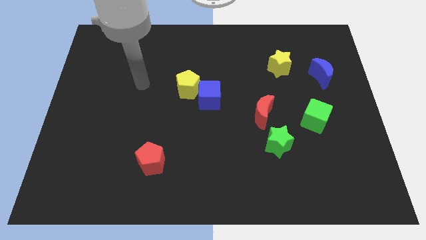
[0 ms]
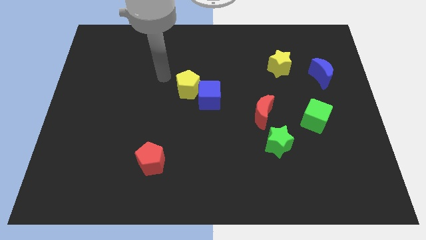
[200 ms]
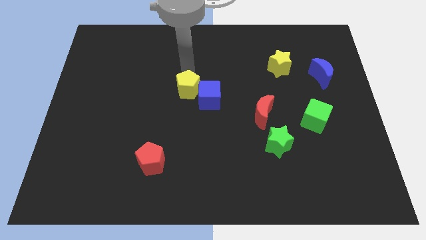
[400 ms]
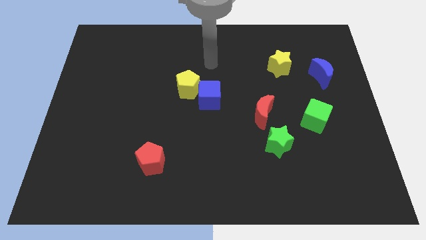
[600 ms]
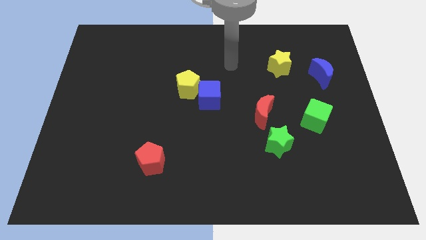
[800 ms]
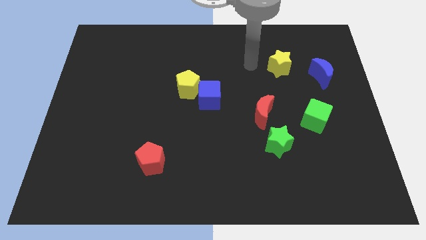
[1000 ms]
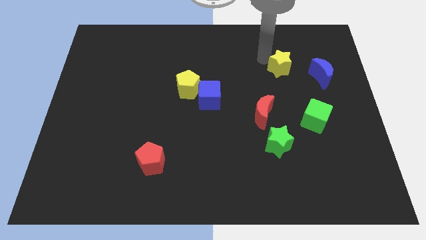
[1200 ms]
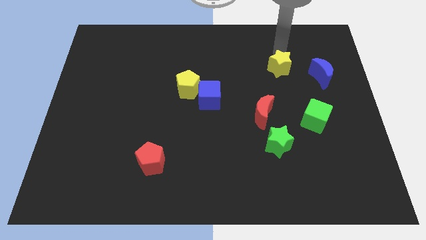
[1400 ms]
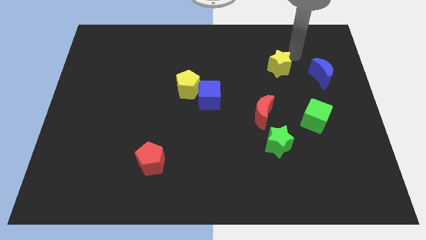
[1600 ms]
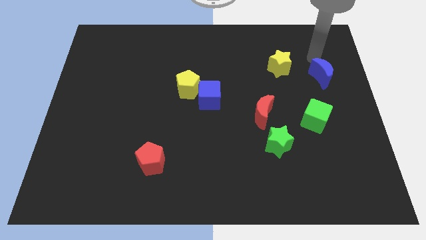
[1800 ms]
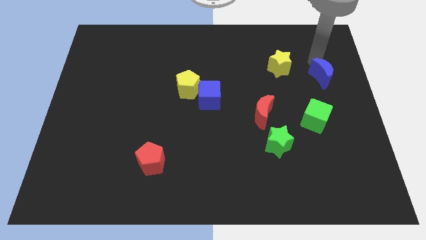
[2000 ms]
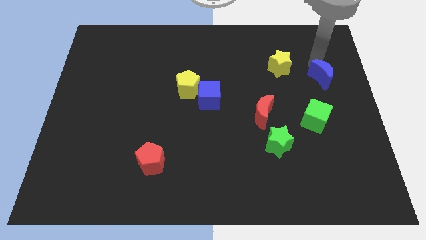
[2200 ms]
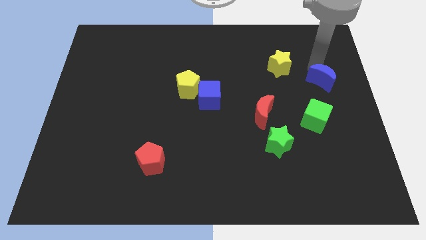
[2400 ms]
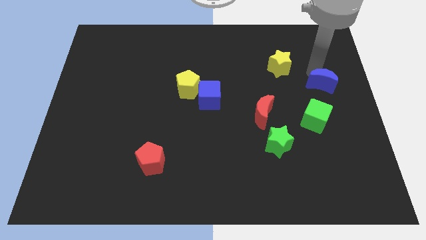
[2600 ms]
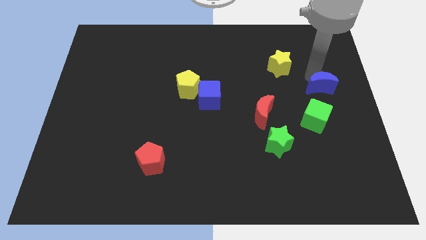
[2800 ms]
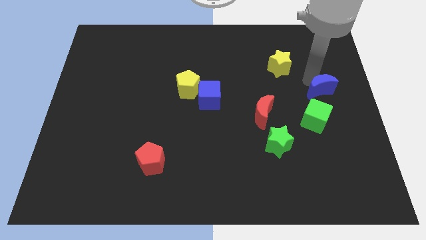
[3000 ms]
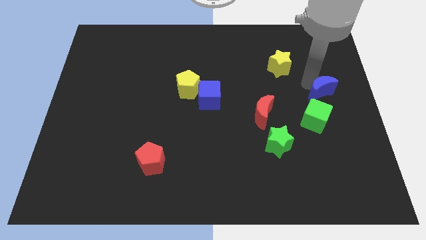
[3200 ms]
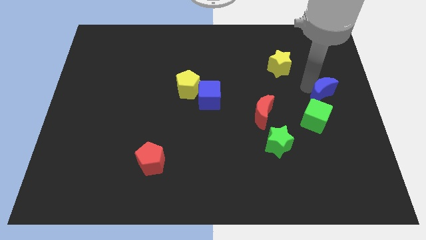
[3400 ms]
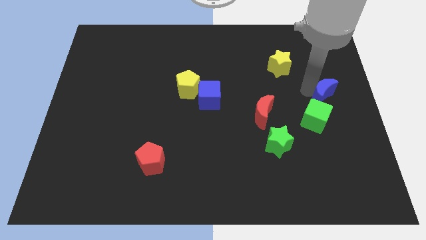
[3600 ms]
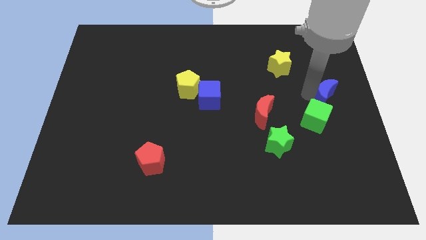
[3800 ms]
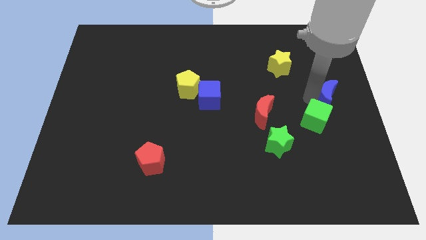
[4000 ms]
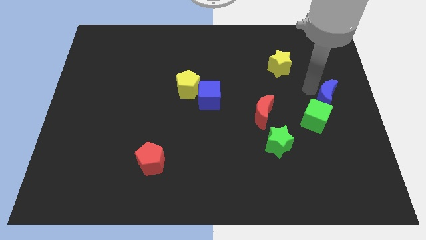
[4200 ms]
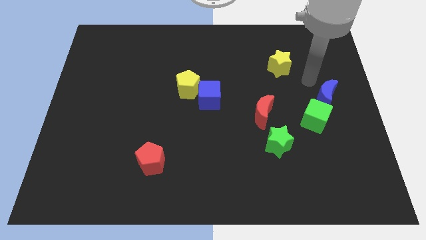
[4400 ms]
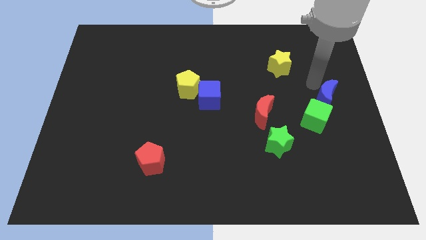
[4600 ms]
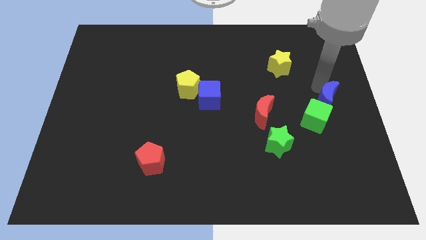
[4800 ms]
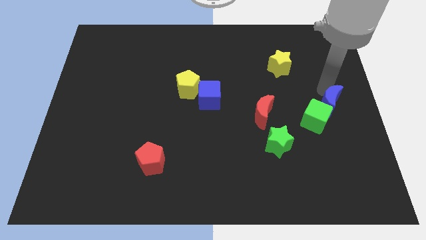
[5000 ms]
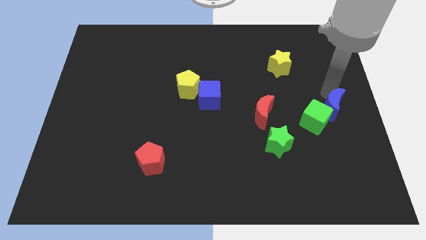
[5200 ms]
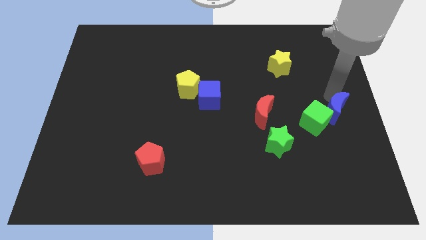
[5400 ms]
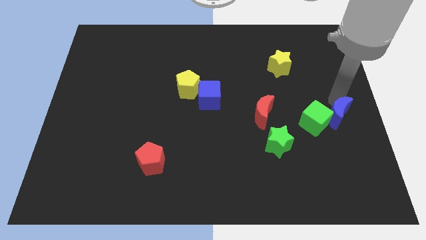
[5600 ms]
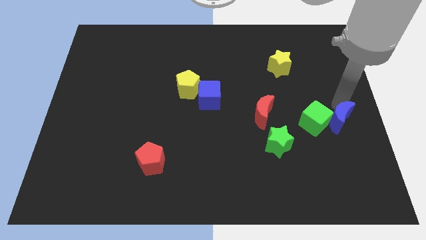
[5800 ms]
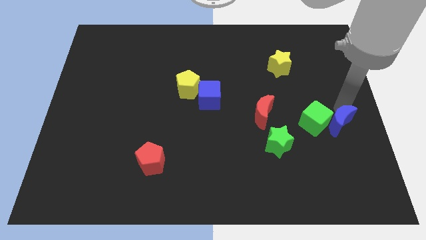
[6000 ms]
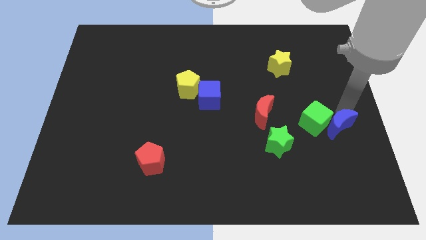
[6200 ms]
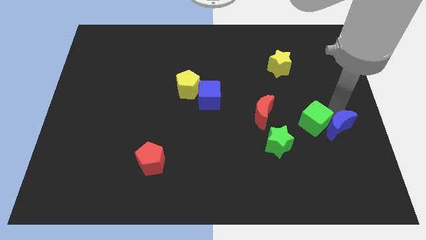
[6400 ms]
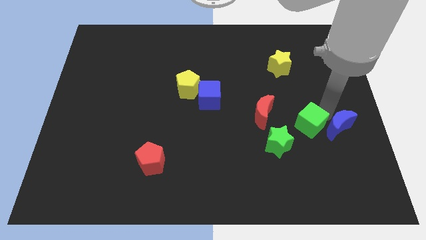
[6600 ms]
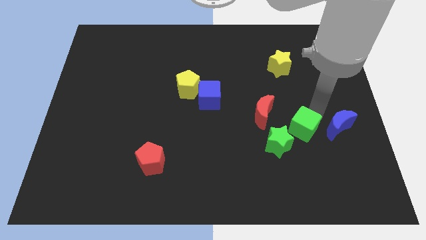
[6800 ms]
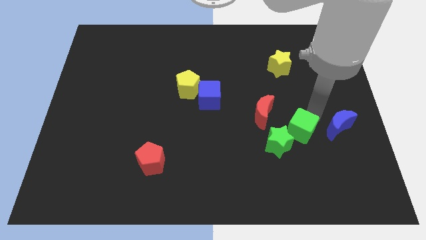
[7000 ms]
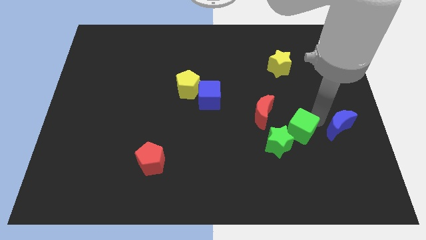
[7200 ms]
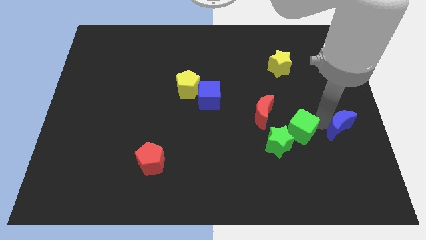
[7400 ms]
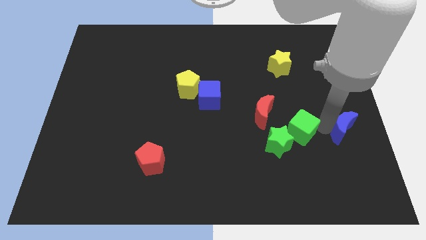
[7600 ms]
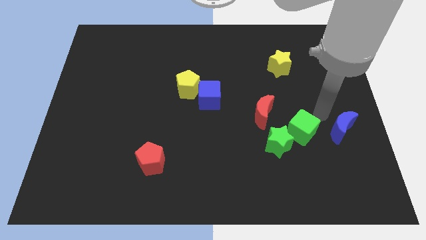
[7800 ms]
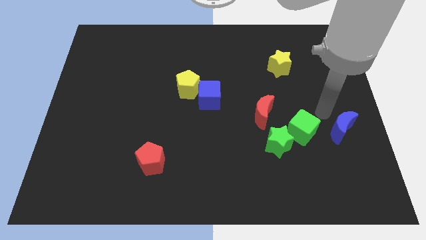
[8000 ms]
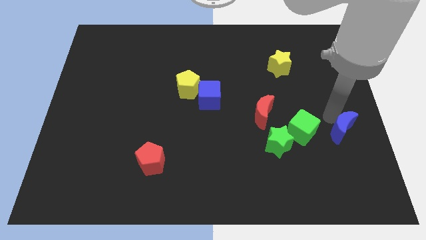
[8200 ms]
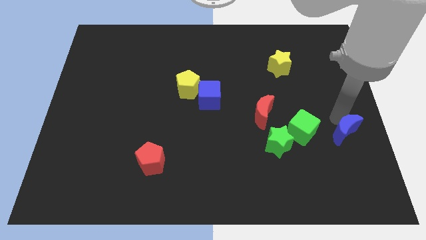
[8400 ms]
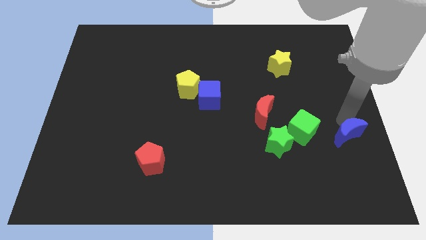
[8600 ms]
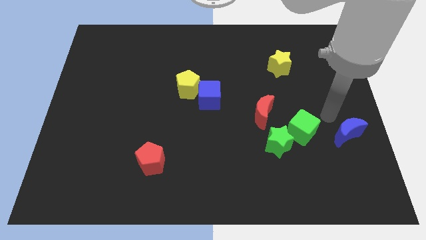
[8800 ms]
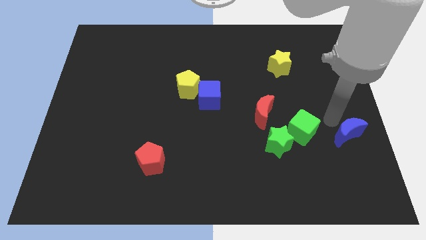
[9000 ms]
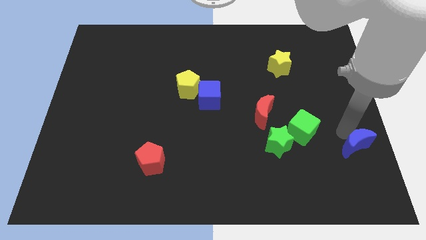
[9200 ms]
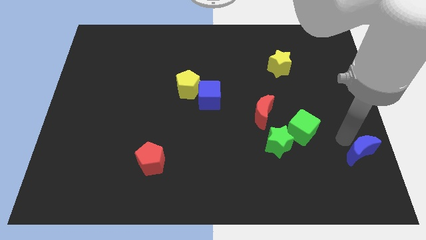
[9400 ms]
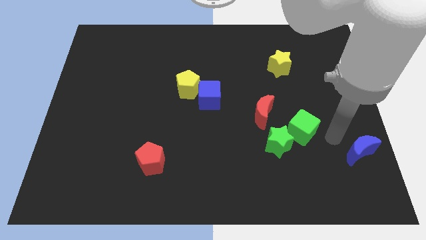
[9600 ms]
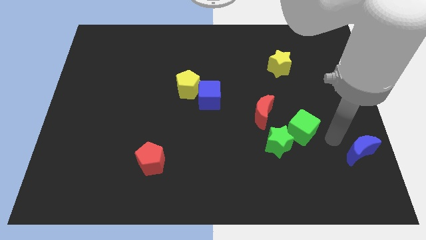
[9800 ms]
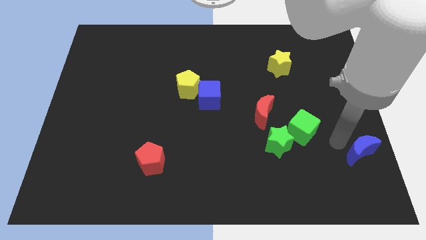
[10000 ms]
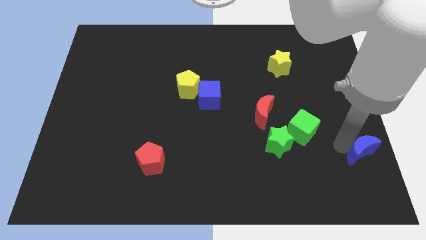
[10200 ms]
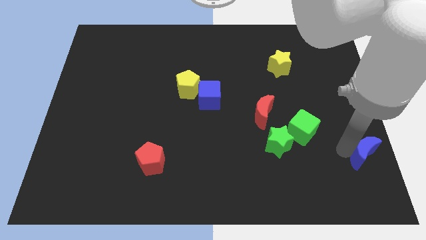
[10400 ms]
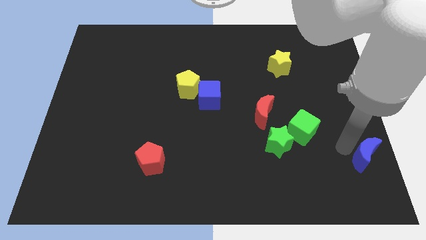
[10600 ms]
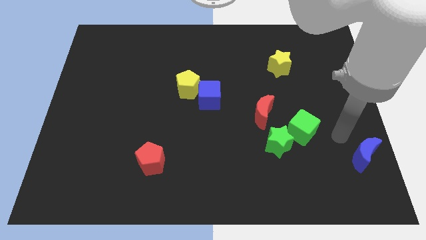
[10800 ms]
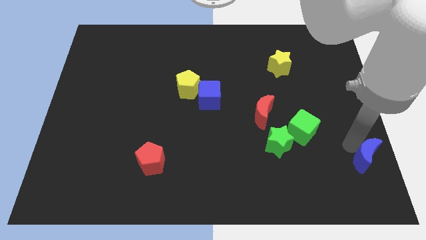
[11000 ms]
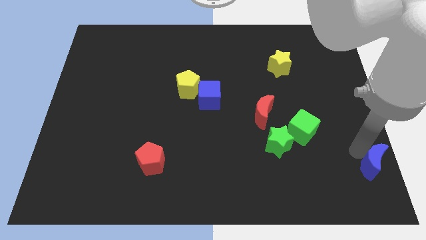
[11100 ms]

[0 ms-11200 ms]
move the blue moon to the bottom right
